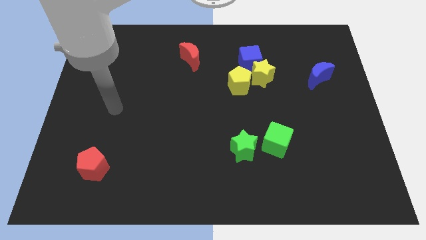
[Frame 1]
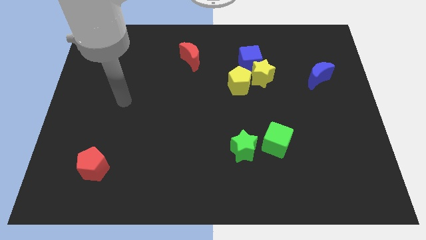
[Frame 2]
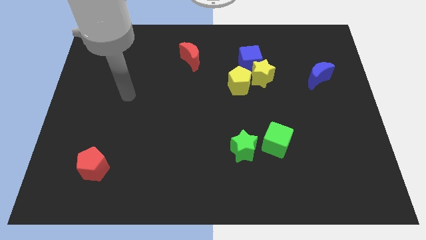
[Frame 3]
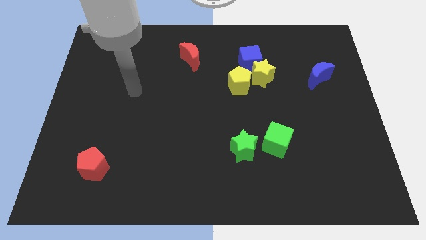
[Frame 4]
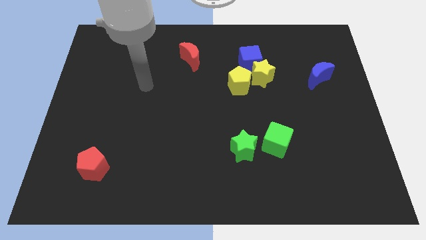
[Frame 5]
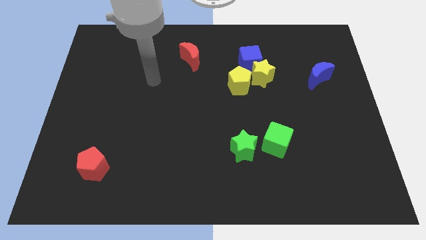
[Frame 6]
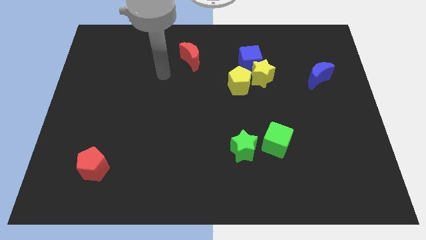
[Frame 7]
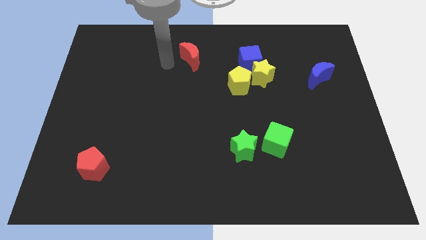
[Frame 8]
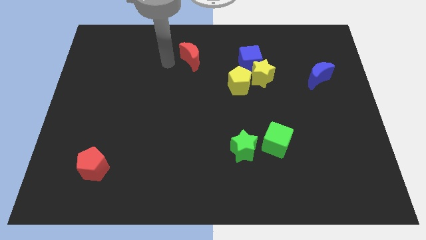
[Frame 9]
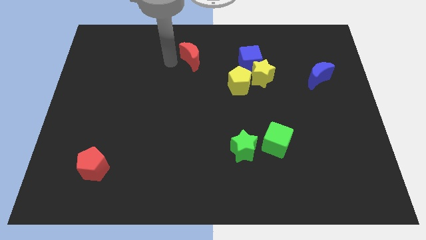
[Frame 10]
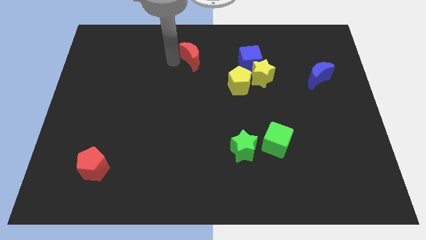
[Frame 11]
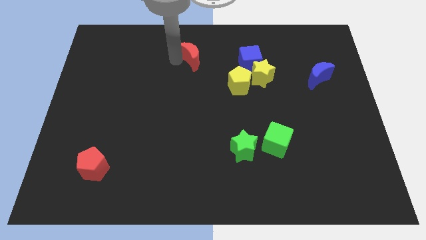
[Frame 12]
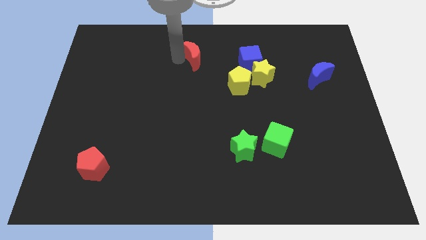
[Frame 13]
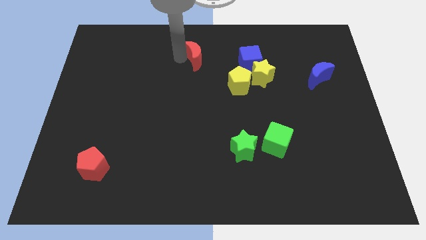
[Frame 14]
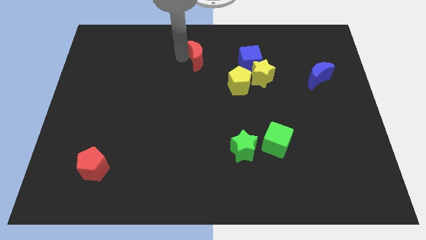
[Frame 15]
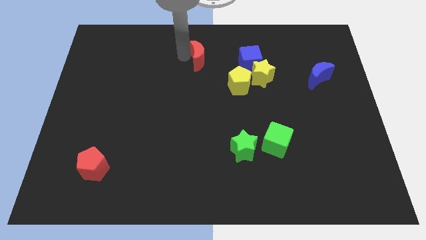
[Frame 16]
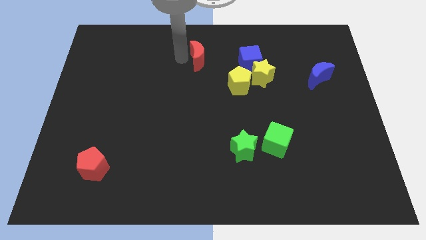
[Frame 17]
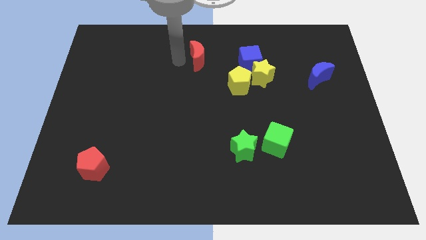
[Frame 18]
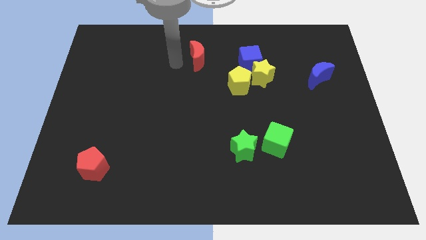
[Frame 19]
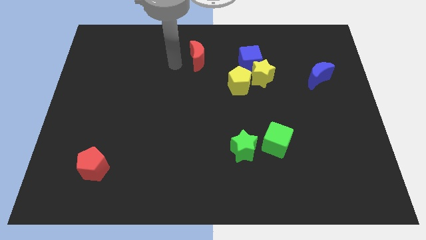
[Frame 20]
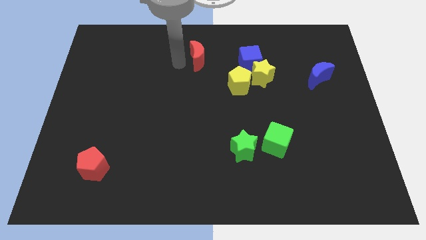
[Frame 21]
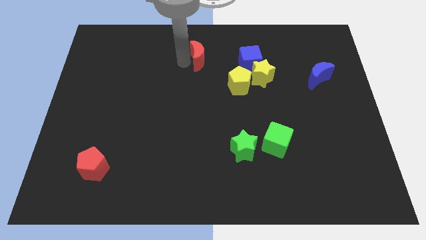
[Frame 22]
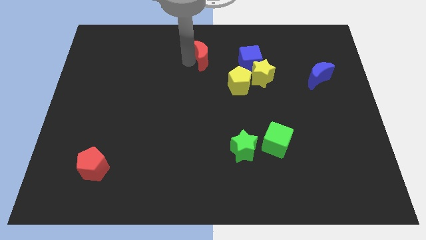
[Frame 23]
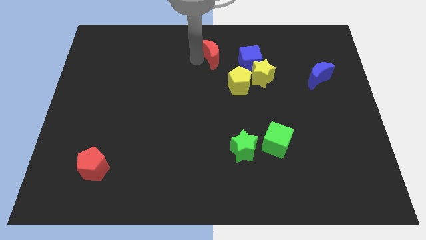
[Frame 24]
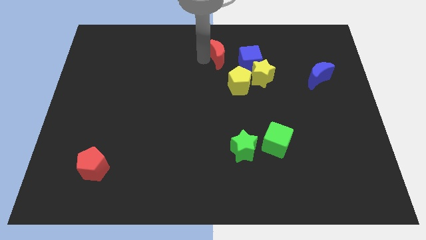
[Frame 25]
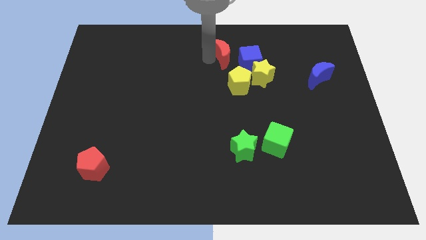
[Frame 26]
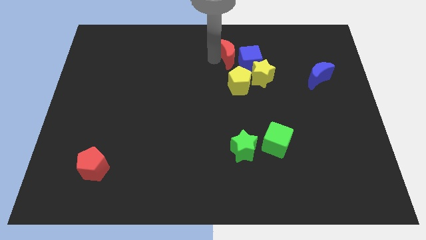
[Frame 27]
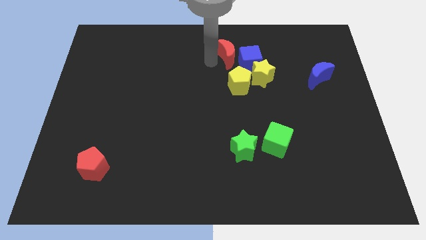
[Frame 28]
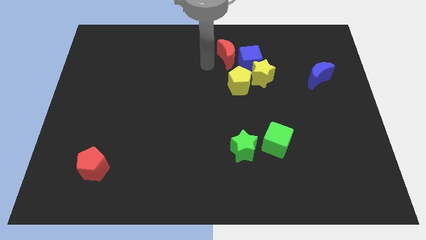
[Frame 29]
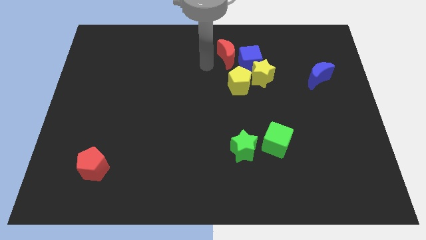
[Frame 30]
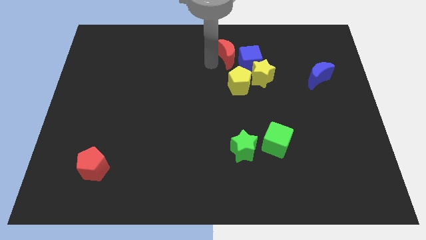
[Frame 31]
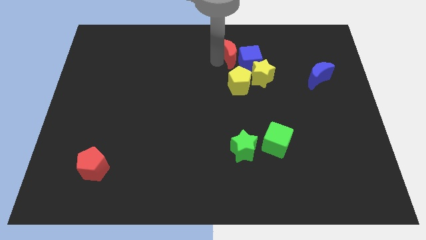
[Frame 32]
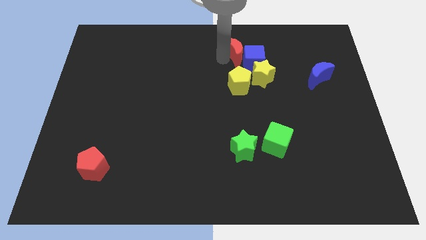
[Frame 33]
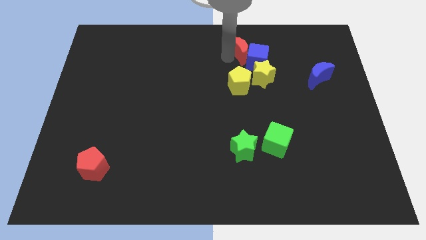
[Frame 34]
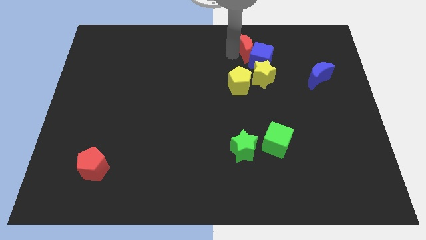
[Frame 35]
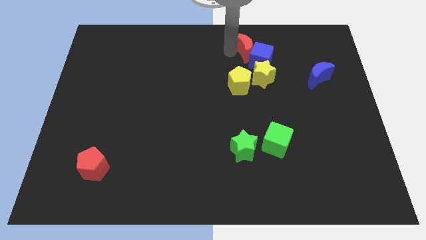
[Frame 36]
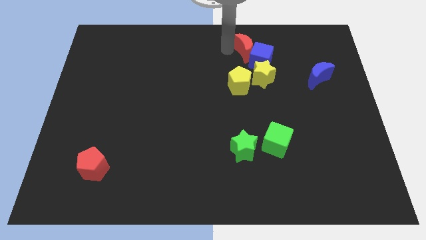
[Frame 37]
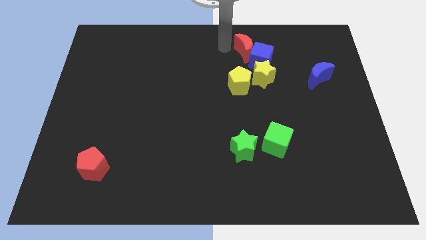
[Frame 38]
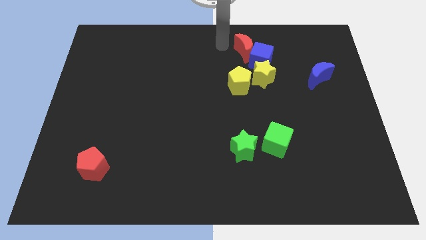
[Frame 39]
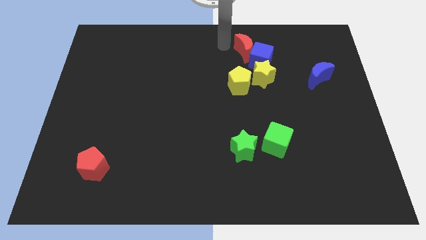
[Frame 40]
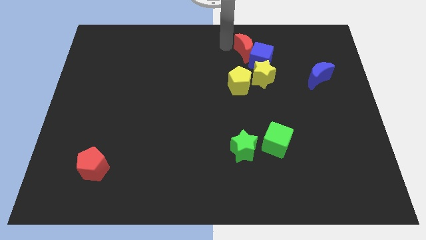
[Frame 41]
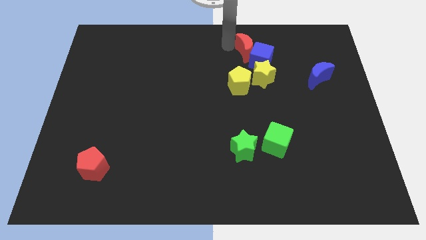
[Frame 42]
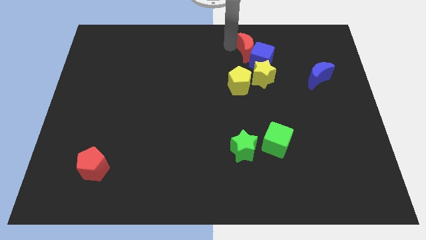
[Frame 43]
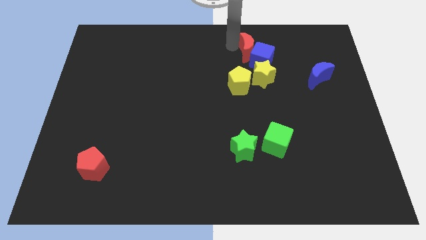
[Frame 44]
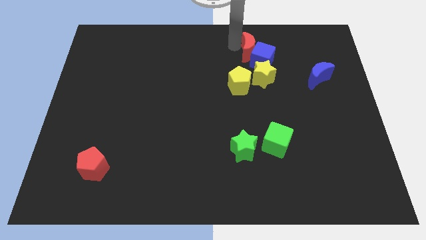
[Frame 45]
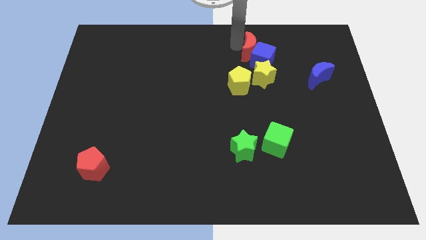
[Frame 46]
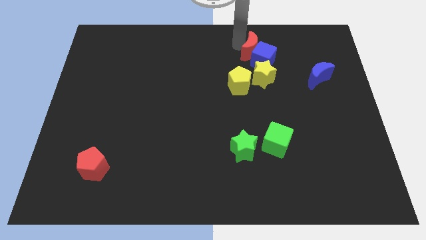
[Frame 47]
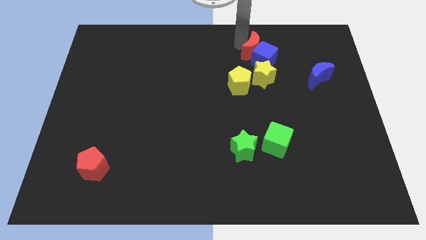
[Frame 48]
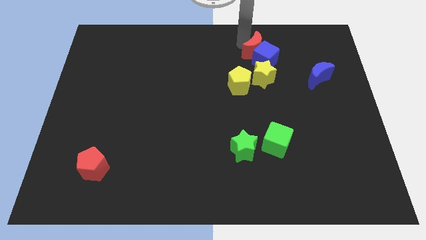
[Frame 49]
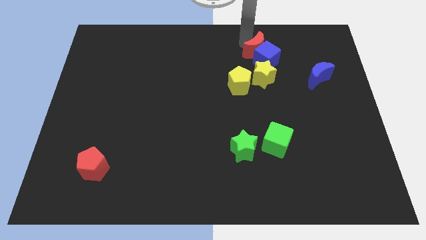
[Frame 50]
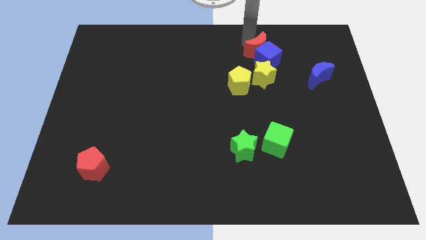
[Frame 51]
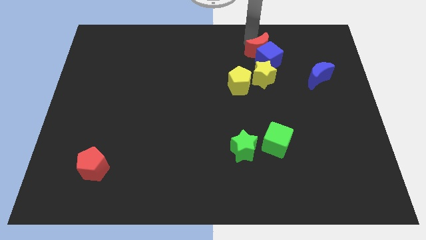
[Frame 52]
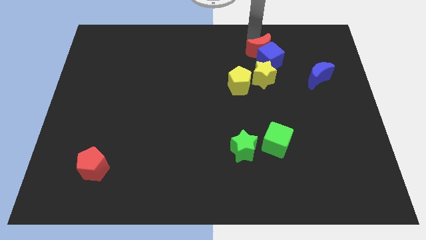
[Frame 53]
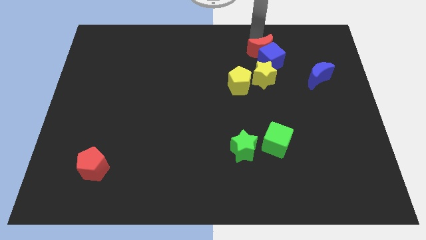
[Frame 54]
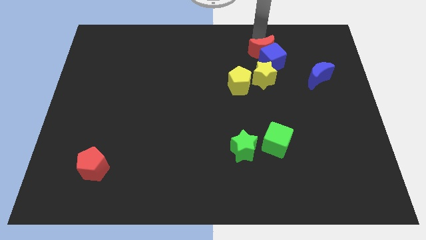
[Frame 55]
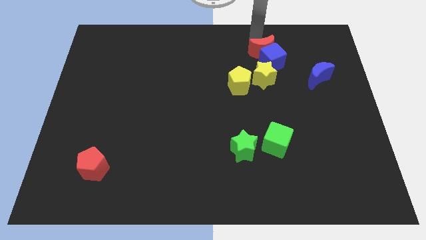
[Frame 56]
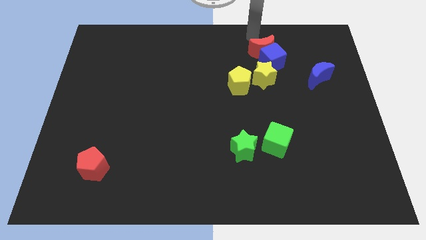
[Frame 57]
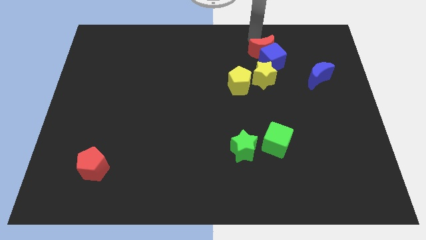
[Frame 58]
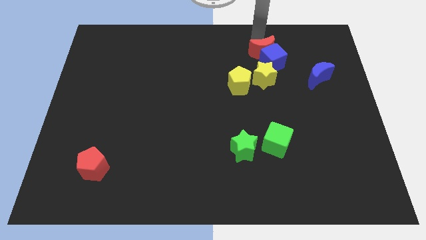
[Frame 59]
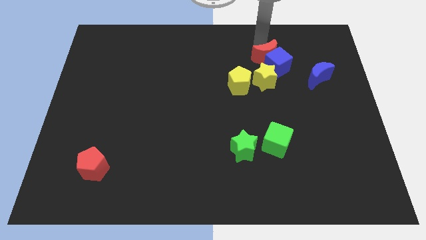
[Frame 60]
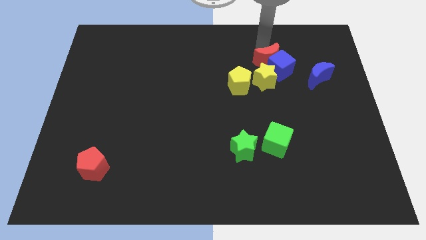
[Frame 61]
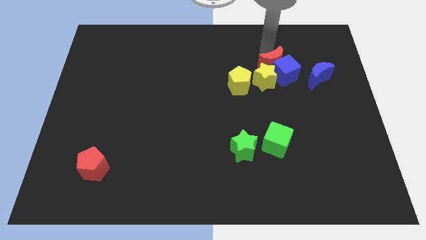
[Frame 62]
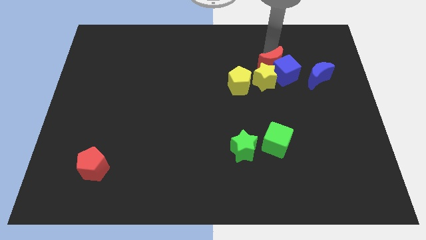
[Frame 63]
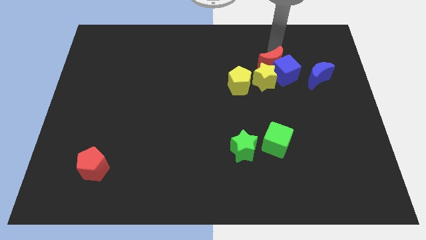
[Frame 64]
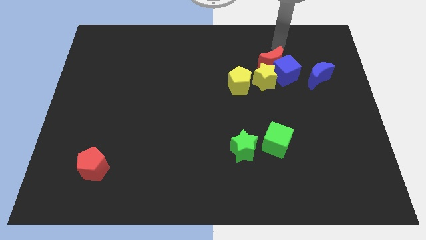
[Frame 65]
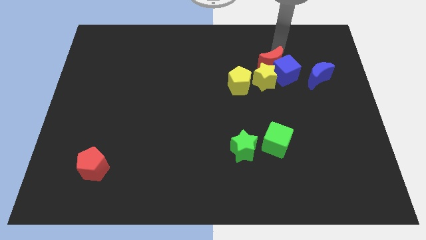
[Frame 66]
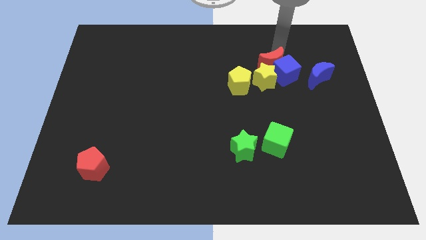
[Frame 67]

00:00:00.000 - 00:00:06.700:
slide the red moon close to the yellow star
